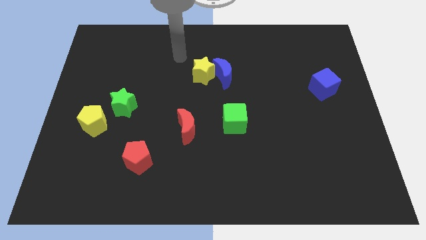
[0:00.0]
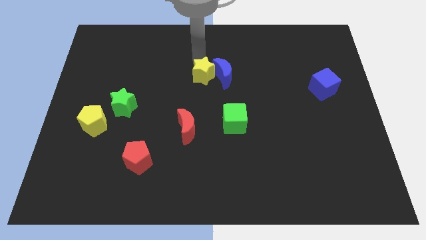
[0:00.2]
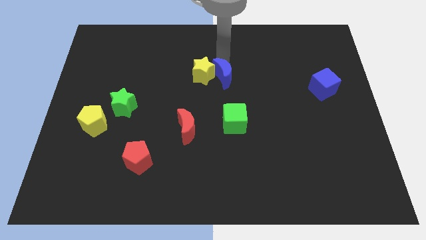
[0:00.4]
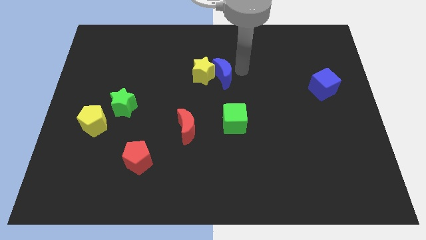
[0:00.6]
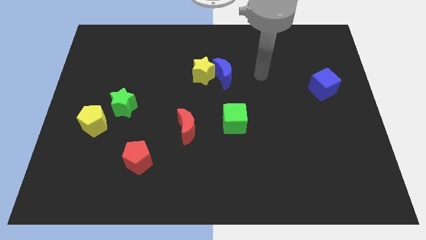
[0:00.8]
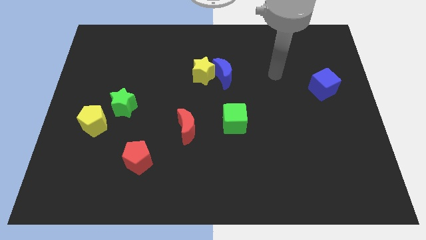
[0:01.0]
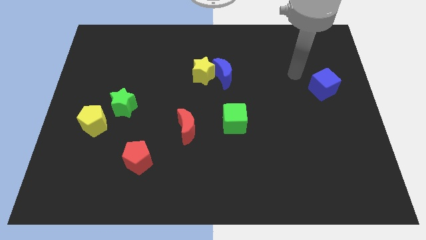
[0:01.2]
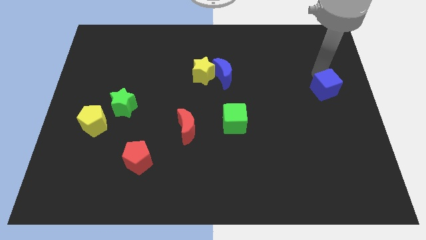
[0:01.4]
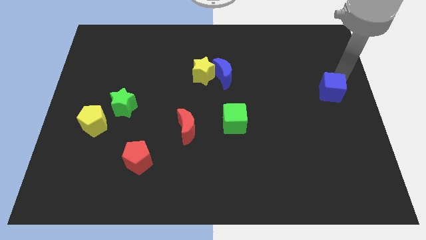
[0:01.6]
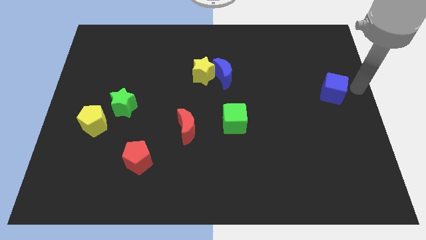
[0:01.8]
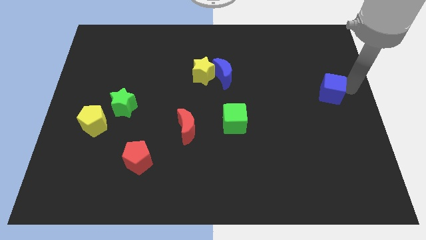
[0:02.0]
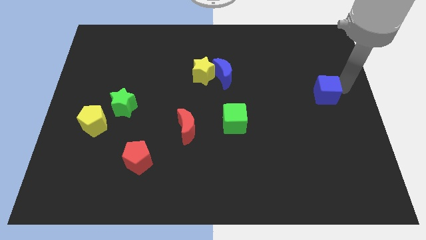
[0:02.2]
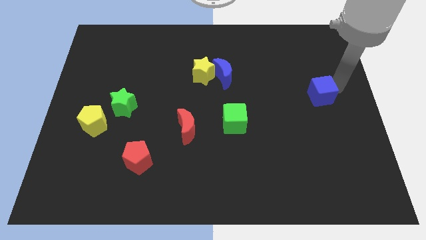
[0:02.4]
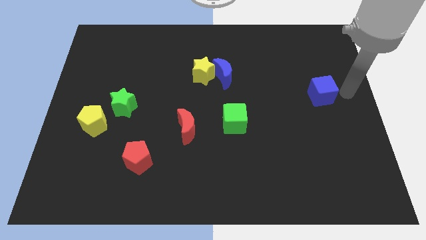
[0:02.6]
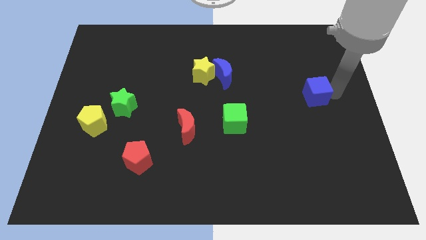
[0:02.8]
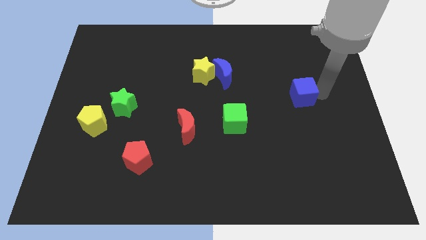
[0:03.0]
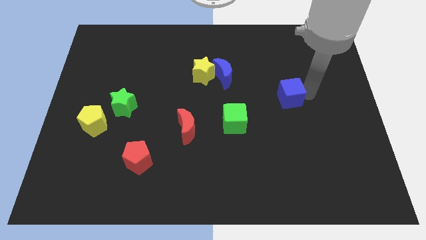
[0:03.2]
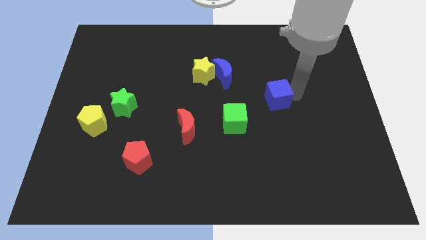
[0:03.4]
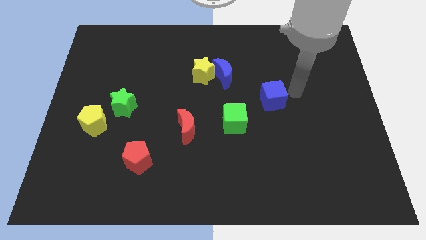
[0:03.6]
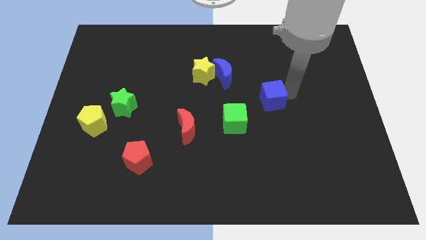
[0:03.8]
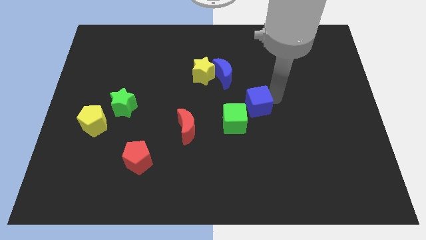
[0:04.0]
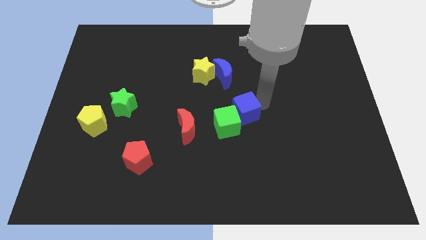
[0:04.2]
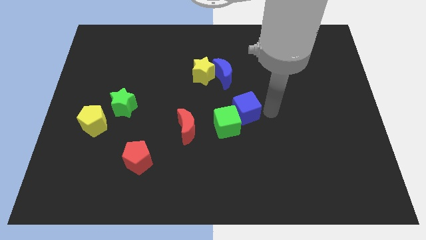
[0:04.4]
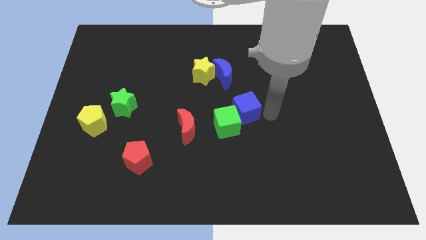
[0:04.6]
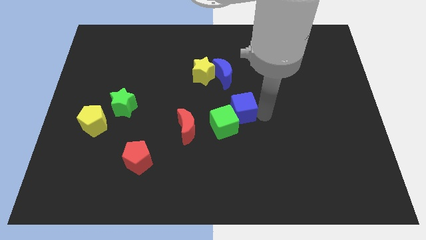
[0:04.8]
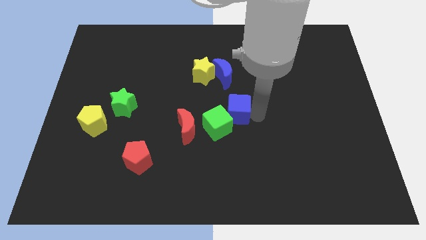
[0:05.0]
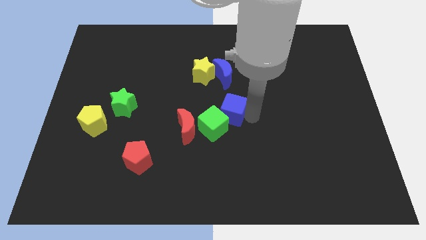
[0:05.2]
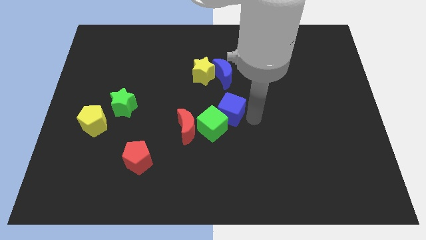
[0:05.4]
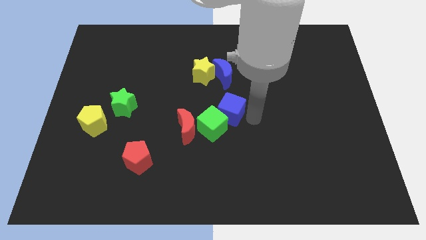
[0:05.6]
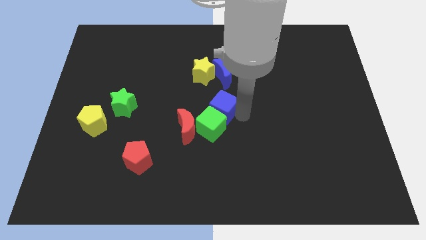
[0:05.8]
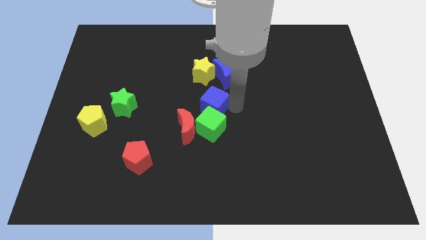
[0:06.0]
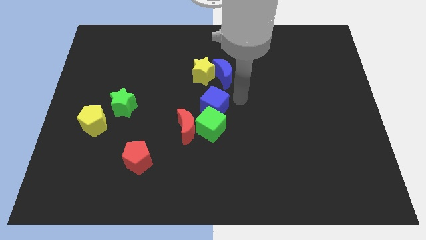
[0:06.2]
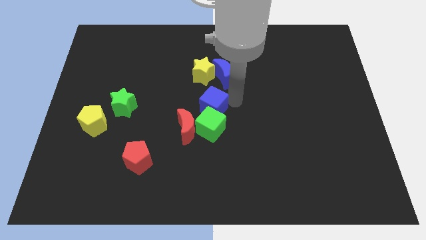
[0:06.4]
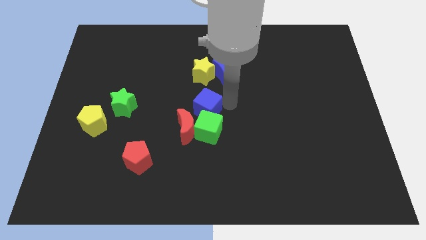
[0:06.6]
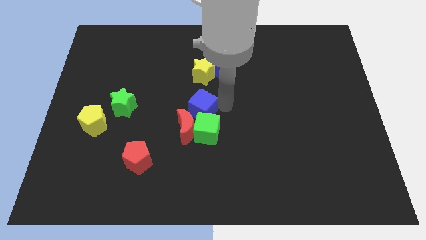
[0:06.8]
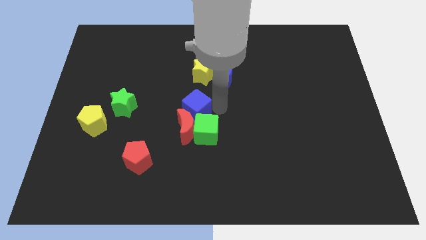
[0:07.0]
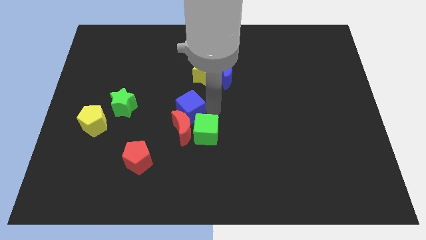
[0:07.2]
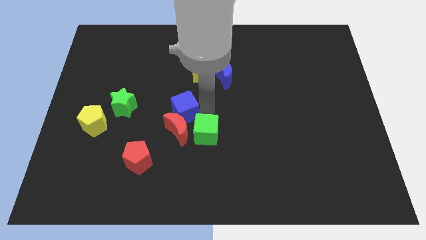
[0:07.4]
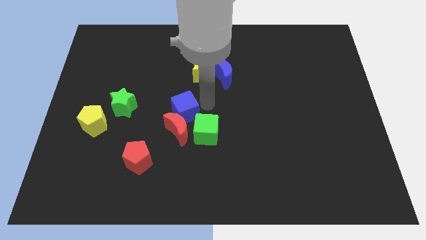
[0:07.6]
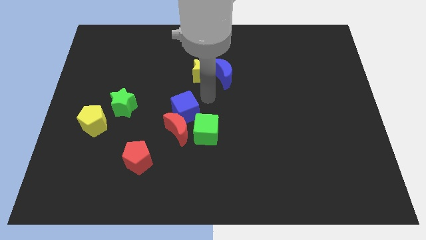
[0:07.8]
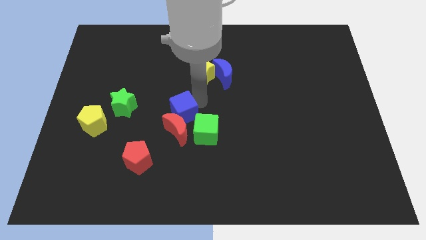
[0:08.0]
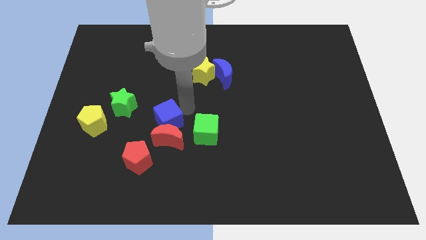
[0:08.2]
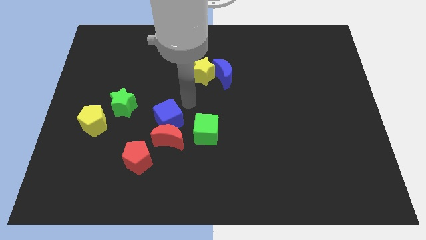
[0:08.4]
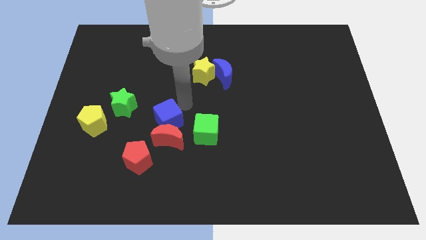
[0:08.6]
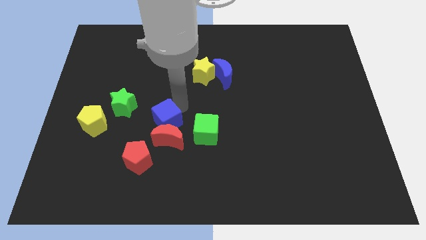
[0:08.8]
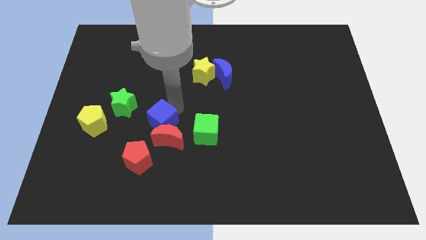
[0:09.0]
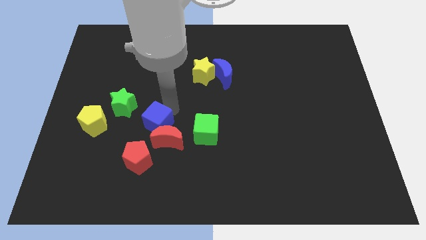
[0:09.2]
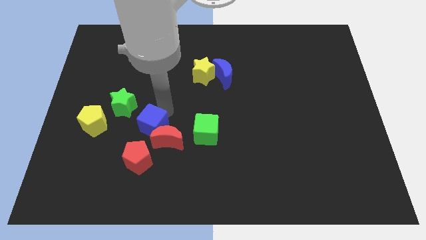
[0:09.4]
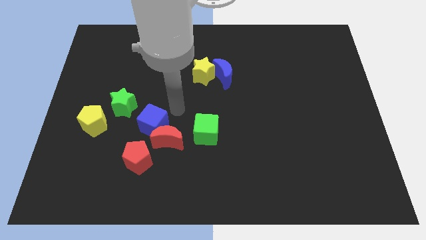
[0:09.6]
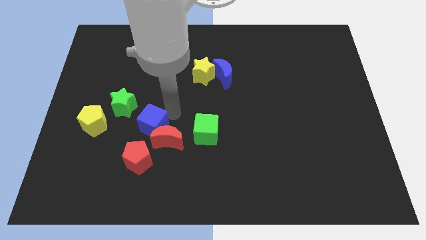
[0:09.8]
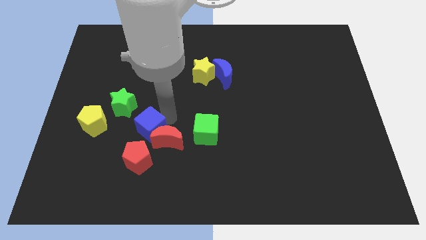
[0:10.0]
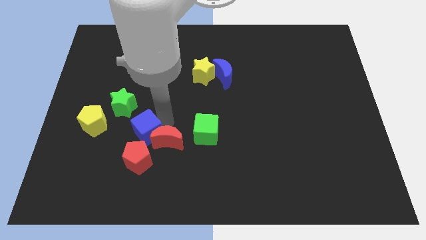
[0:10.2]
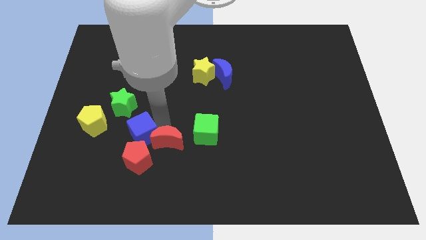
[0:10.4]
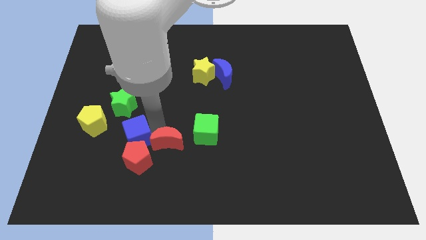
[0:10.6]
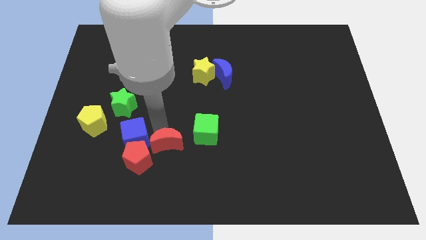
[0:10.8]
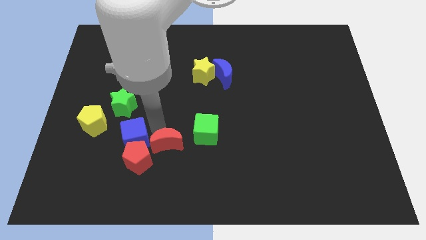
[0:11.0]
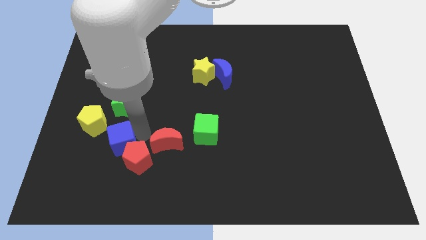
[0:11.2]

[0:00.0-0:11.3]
slide the blue cube to the left side of the red pentagon

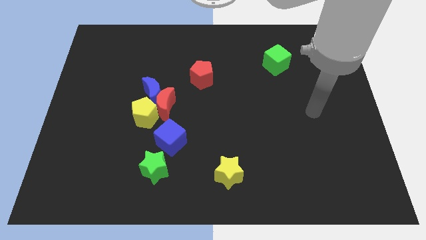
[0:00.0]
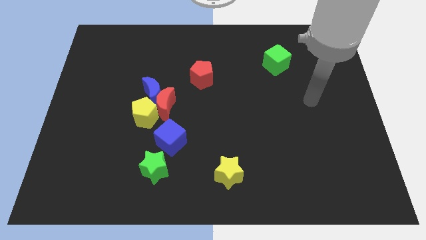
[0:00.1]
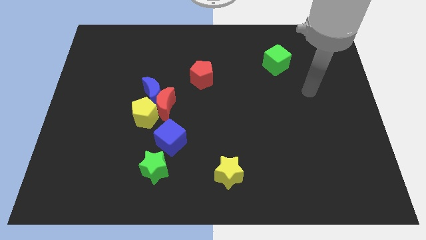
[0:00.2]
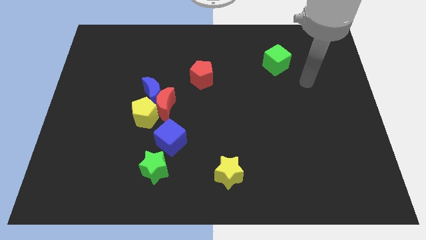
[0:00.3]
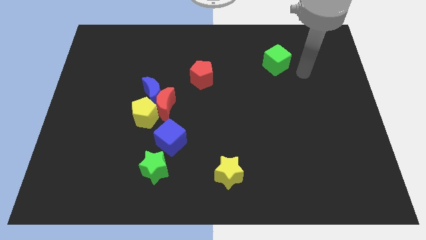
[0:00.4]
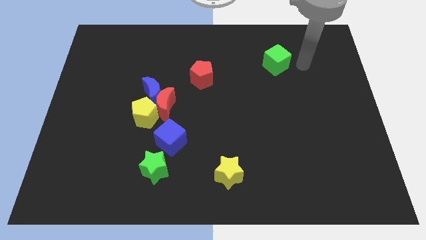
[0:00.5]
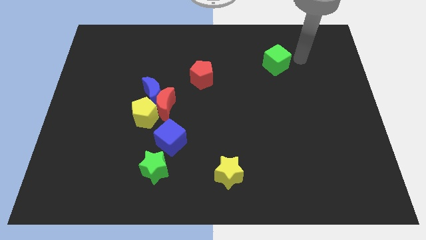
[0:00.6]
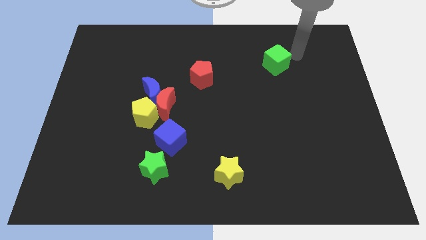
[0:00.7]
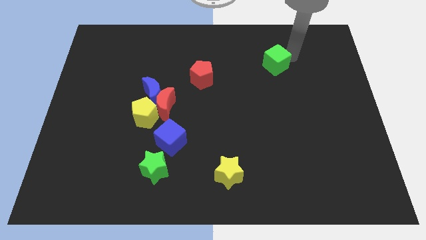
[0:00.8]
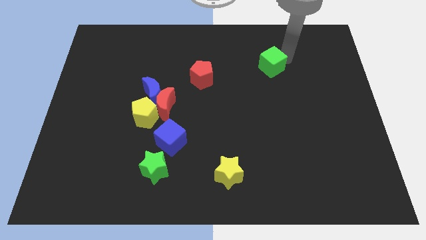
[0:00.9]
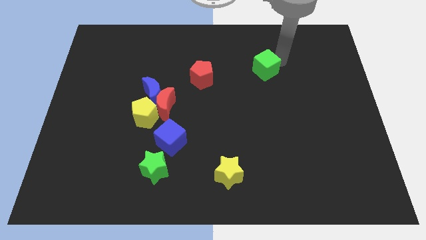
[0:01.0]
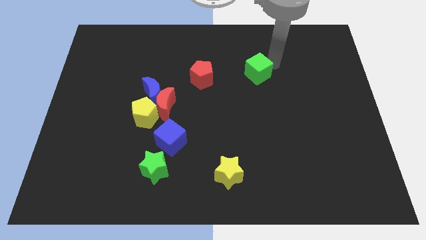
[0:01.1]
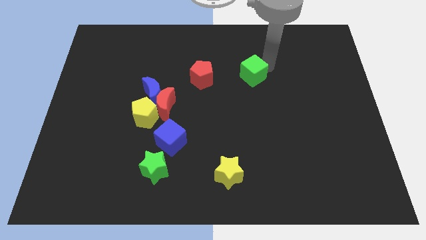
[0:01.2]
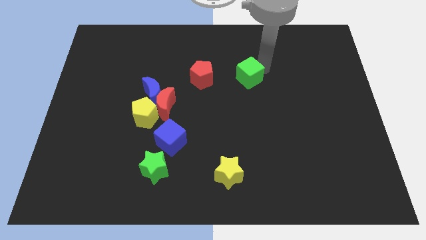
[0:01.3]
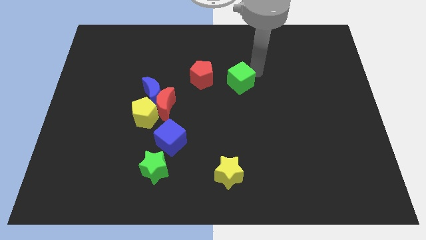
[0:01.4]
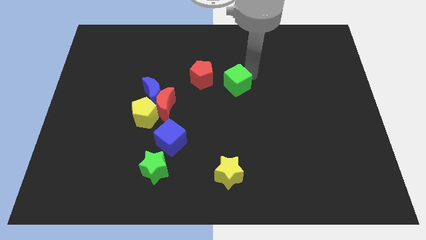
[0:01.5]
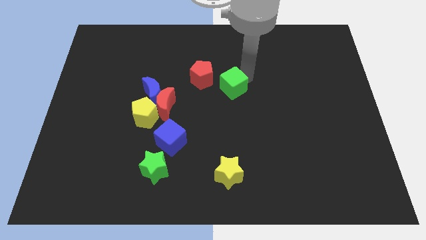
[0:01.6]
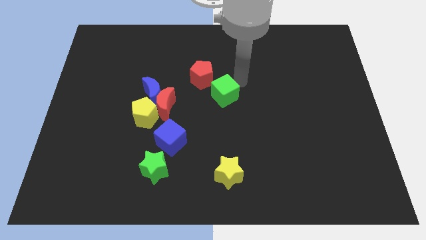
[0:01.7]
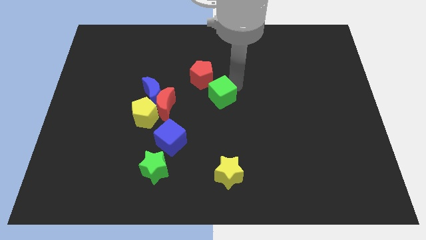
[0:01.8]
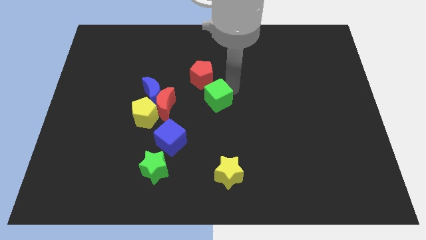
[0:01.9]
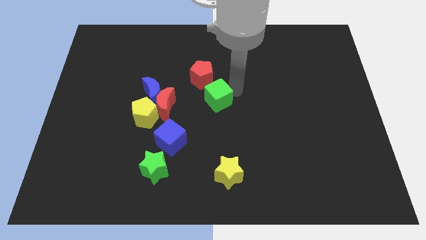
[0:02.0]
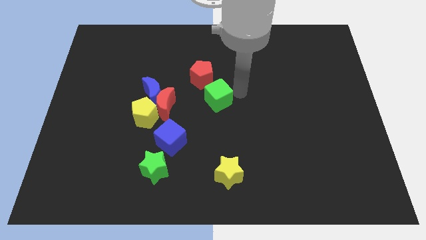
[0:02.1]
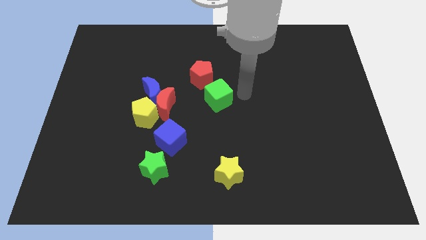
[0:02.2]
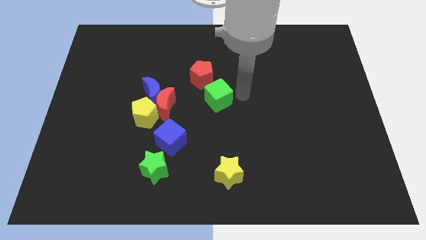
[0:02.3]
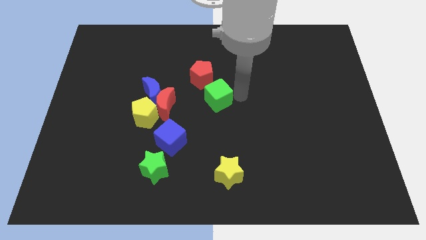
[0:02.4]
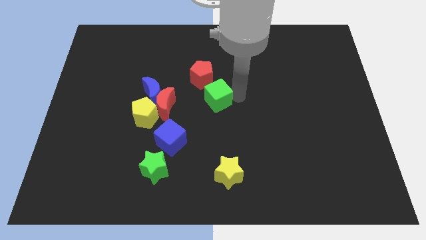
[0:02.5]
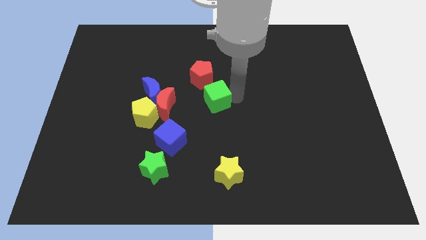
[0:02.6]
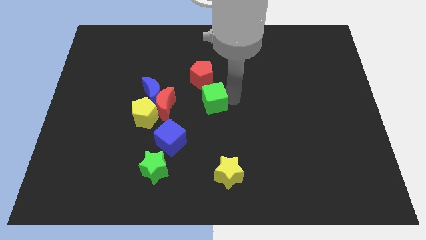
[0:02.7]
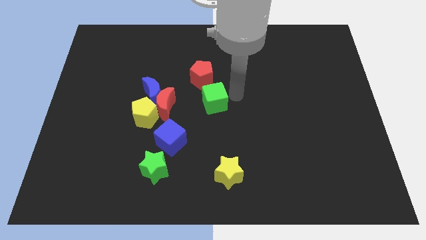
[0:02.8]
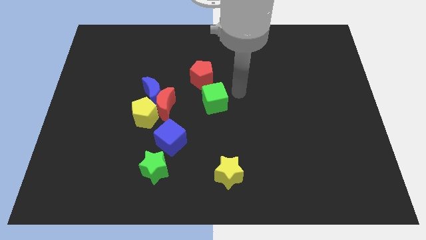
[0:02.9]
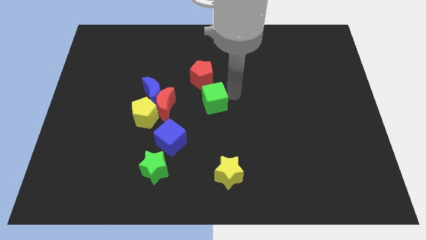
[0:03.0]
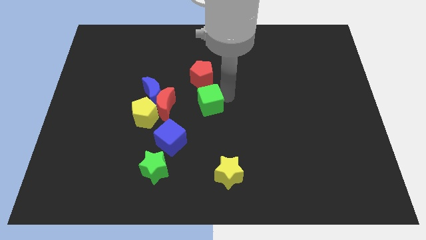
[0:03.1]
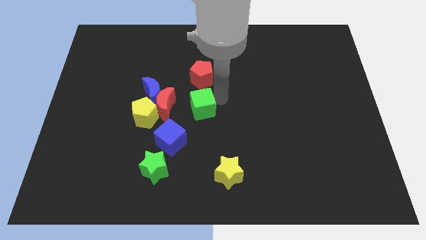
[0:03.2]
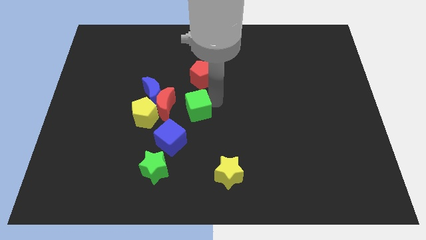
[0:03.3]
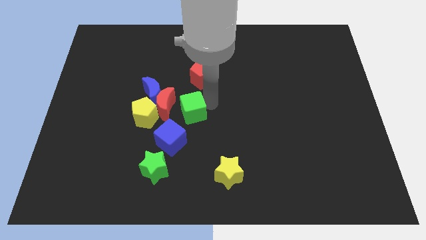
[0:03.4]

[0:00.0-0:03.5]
put the green cube to the bottom right side of the blue moon
